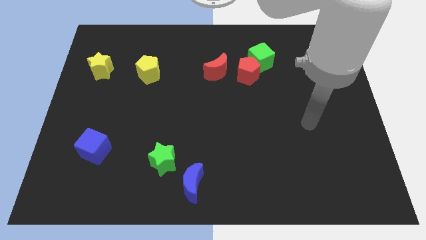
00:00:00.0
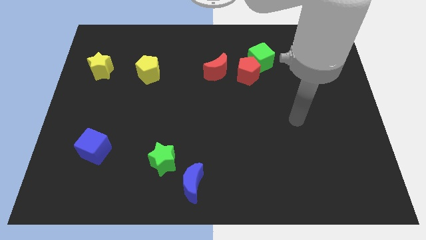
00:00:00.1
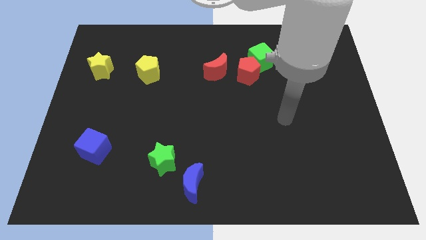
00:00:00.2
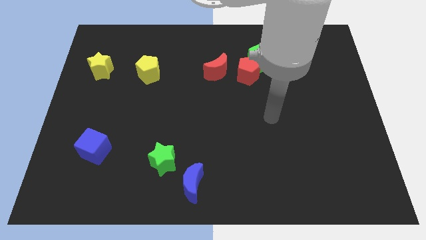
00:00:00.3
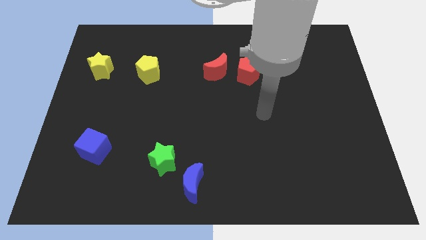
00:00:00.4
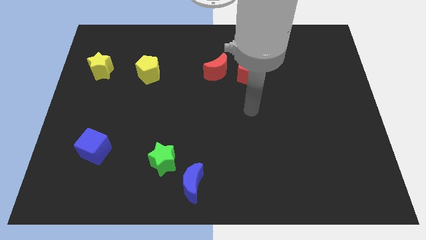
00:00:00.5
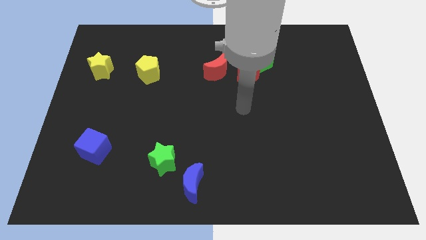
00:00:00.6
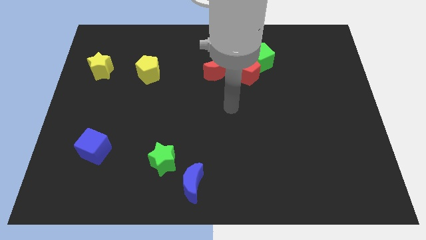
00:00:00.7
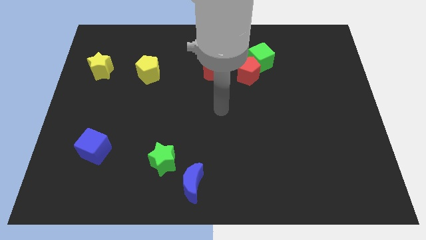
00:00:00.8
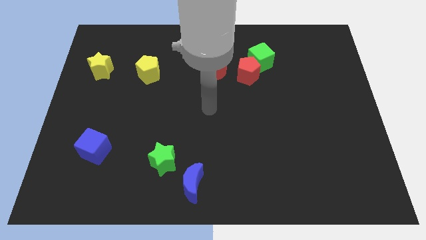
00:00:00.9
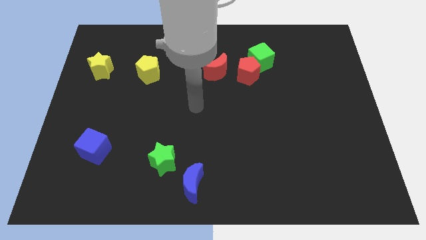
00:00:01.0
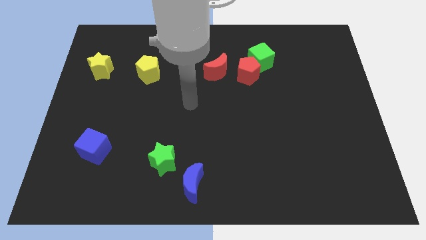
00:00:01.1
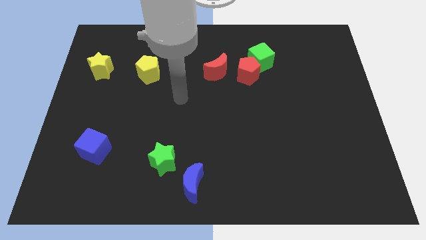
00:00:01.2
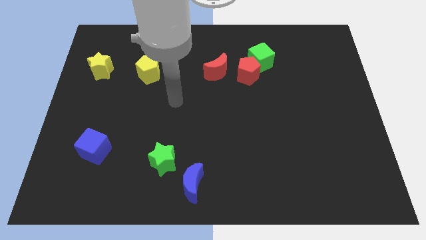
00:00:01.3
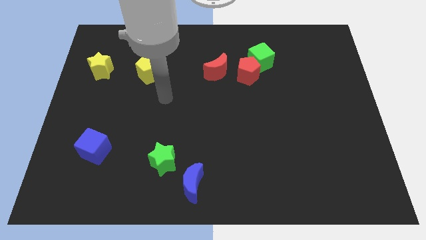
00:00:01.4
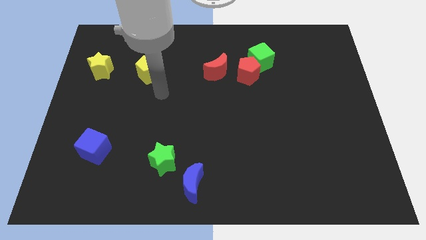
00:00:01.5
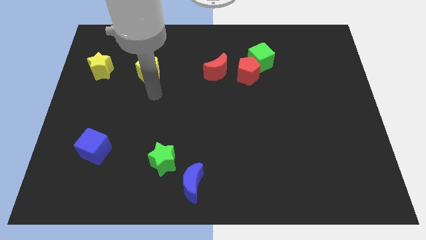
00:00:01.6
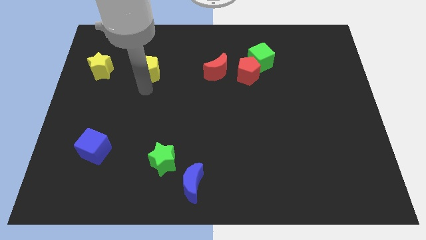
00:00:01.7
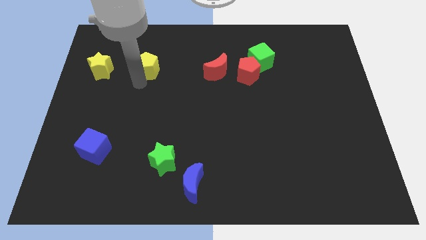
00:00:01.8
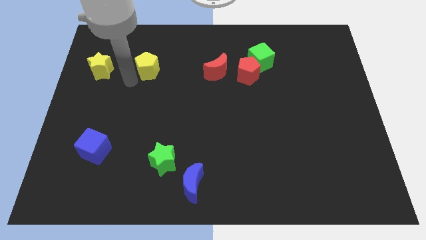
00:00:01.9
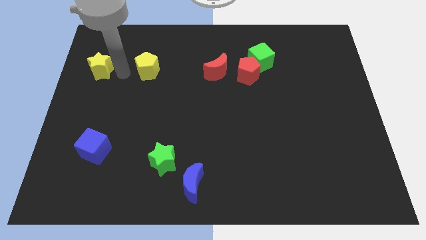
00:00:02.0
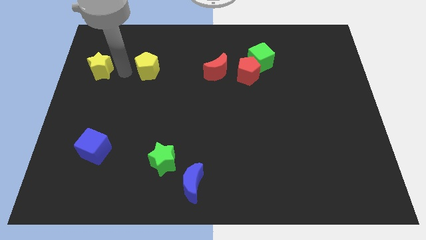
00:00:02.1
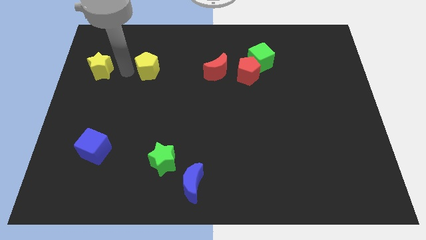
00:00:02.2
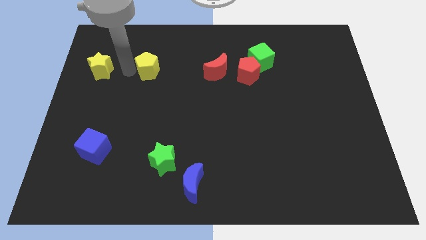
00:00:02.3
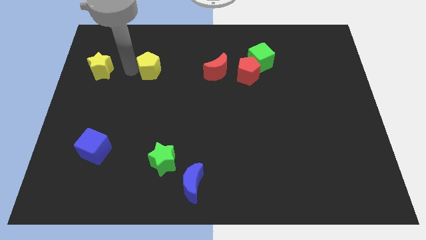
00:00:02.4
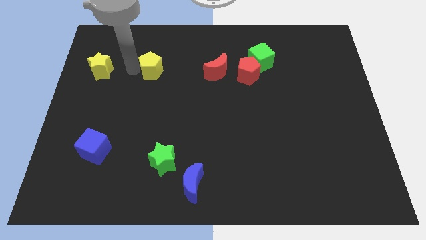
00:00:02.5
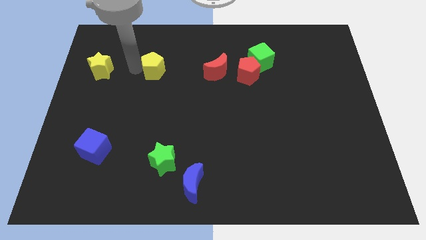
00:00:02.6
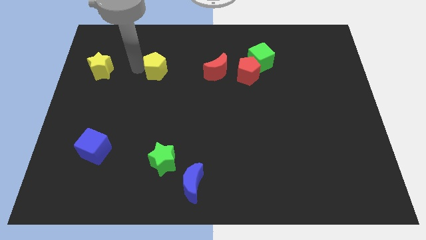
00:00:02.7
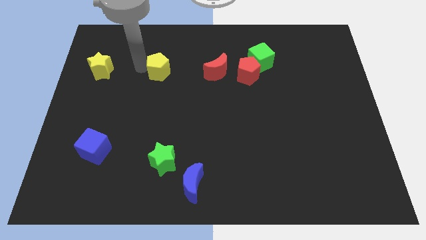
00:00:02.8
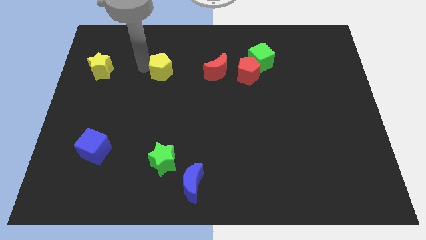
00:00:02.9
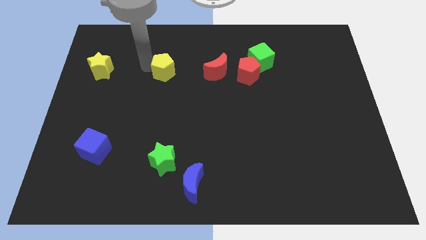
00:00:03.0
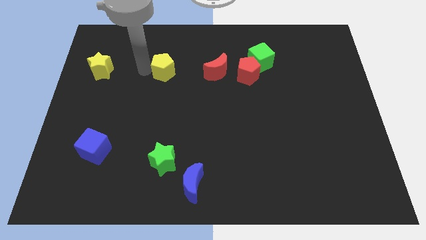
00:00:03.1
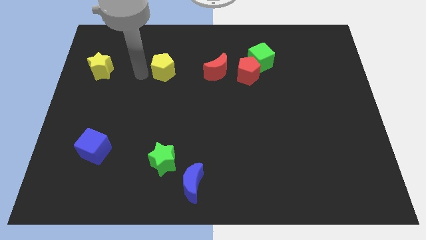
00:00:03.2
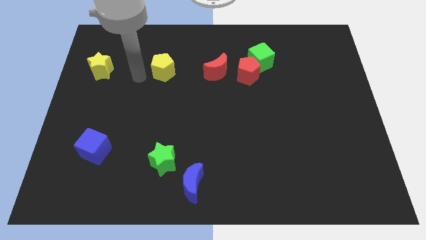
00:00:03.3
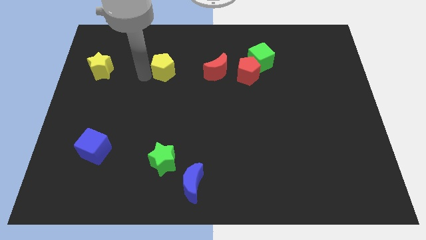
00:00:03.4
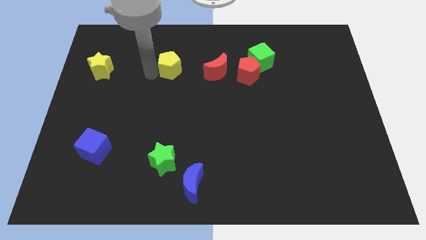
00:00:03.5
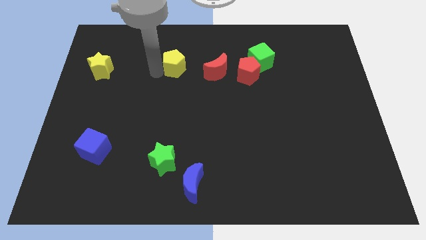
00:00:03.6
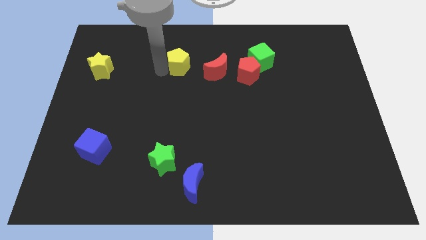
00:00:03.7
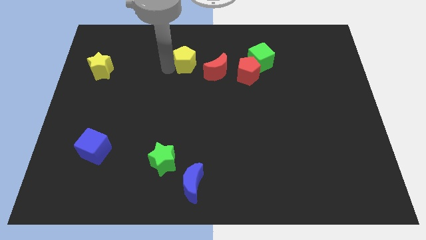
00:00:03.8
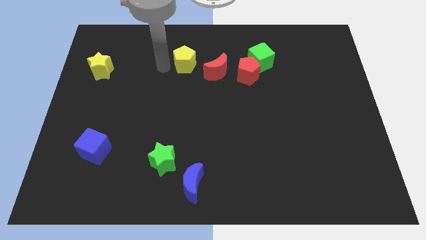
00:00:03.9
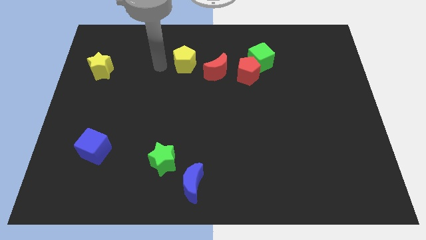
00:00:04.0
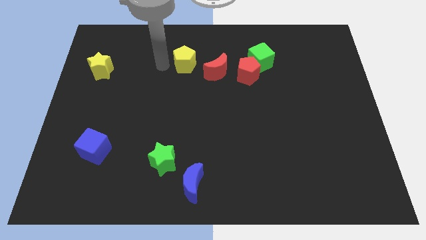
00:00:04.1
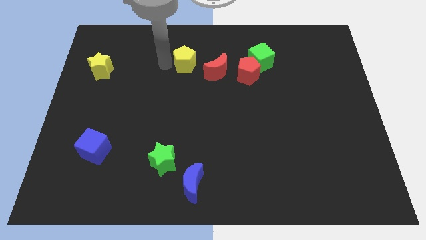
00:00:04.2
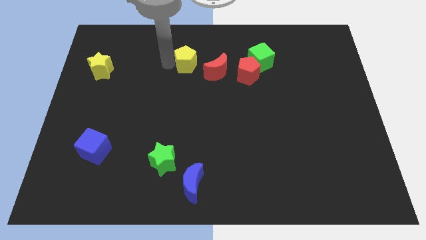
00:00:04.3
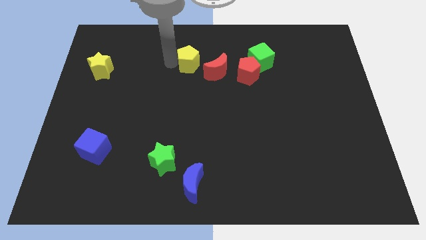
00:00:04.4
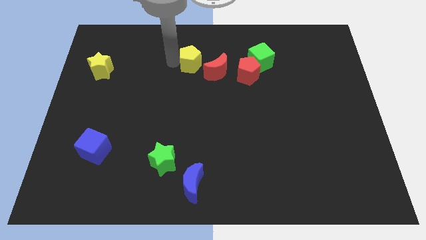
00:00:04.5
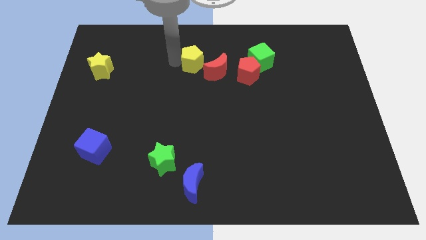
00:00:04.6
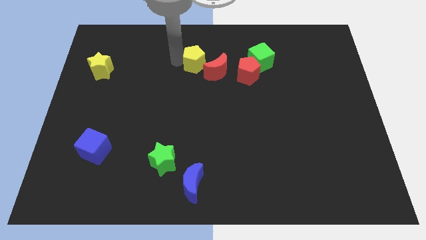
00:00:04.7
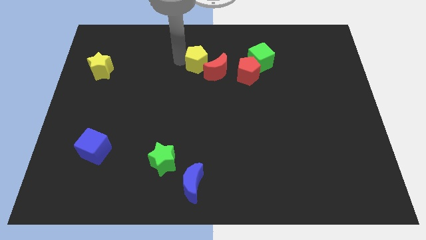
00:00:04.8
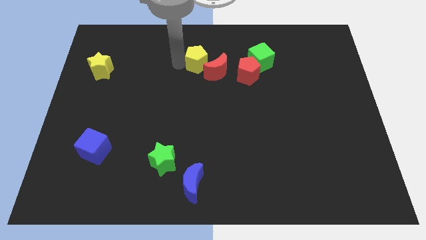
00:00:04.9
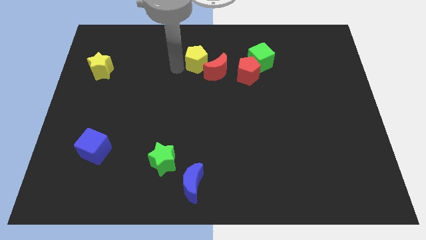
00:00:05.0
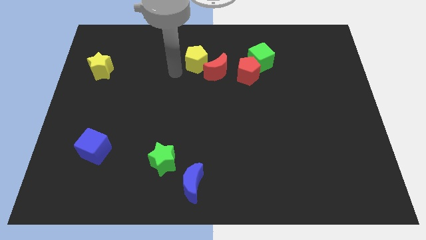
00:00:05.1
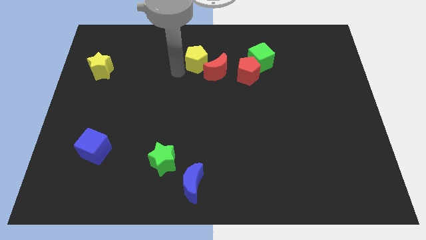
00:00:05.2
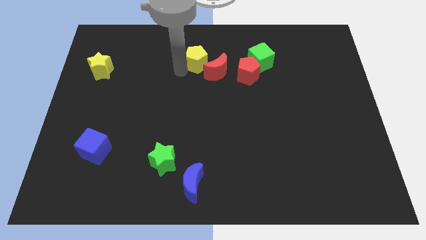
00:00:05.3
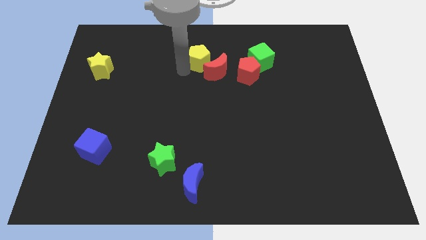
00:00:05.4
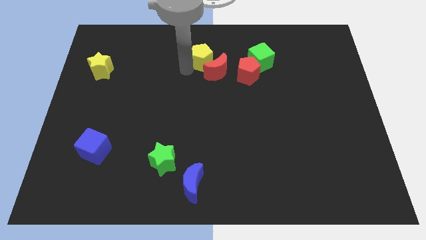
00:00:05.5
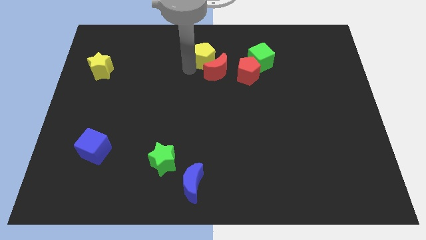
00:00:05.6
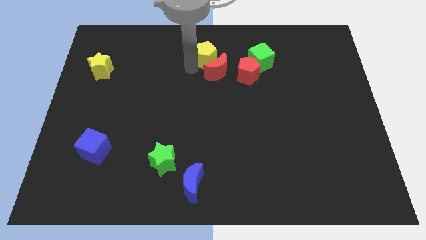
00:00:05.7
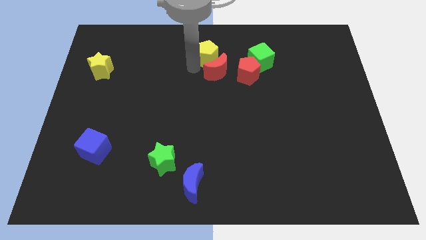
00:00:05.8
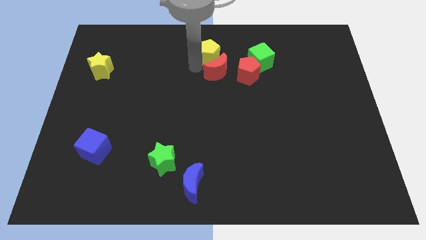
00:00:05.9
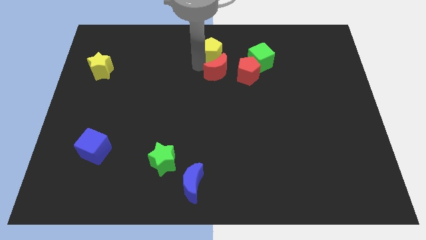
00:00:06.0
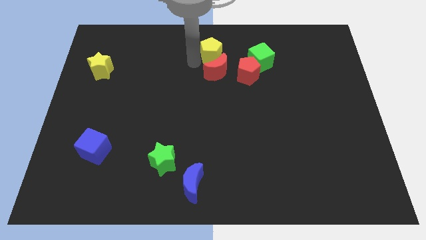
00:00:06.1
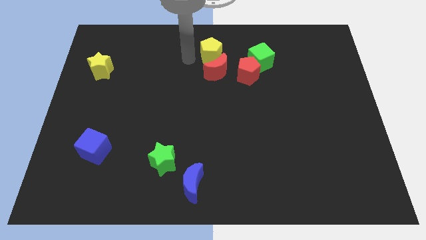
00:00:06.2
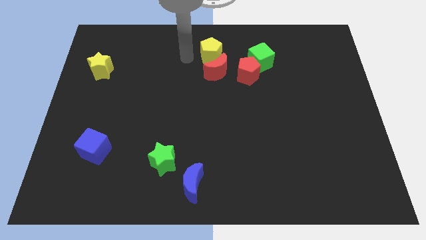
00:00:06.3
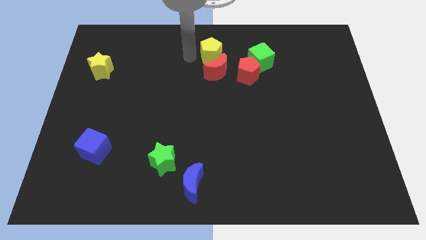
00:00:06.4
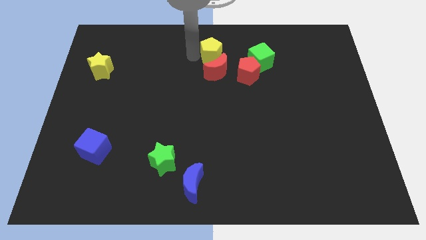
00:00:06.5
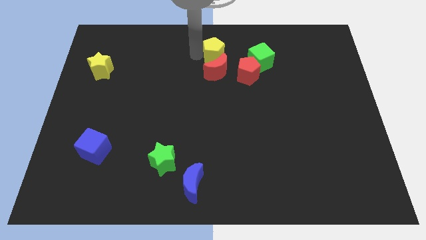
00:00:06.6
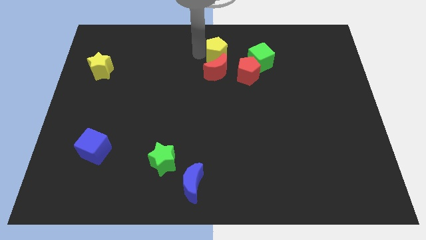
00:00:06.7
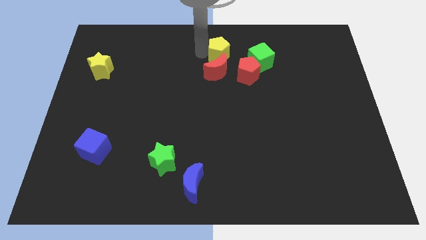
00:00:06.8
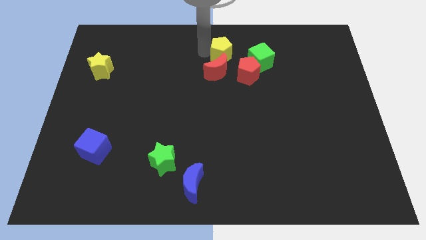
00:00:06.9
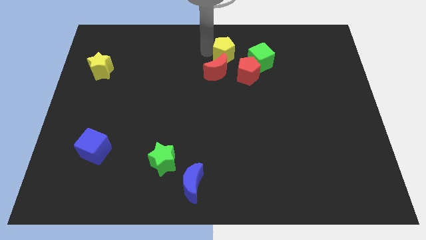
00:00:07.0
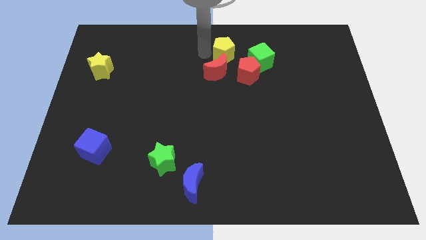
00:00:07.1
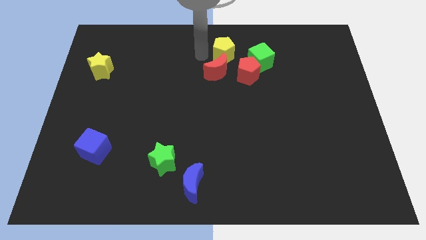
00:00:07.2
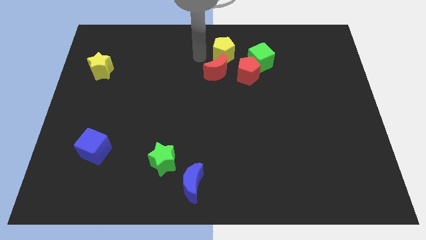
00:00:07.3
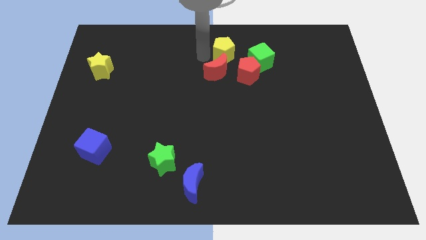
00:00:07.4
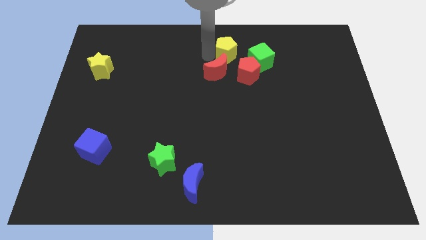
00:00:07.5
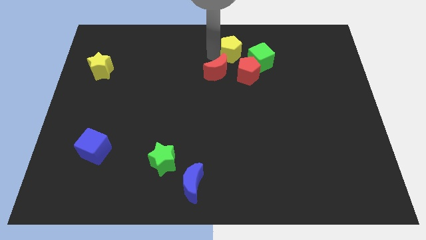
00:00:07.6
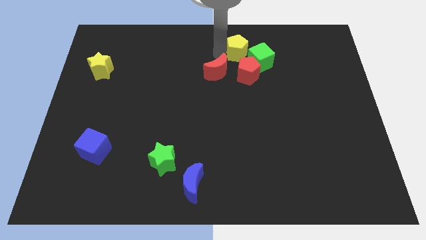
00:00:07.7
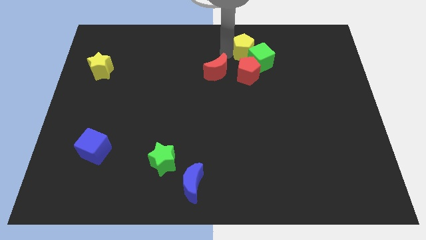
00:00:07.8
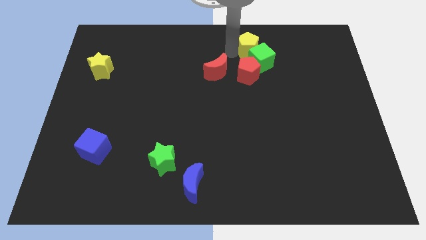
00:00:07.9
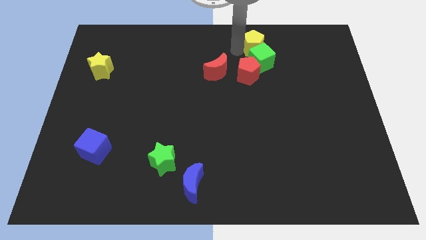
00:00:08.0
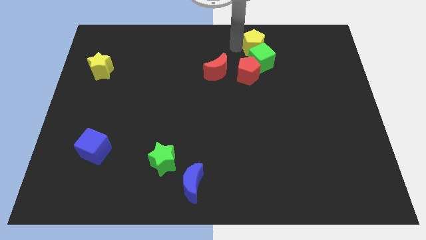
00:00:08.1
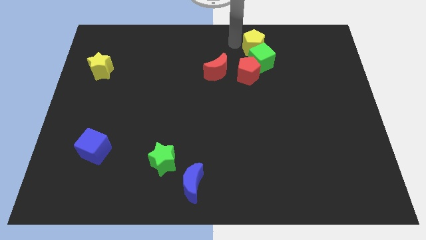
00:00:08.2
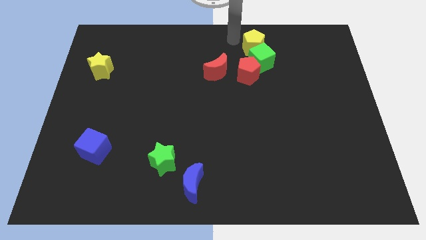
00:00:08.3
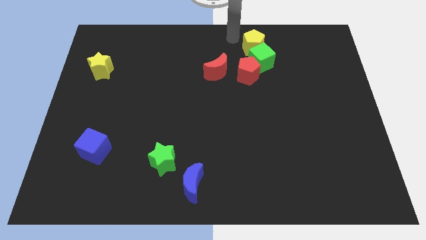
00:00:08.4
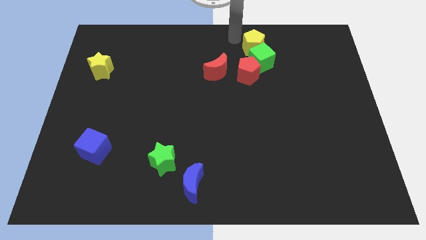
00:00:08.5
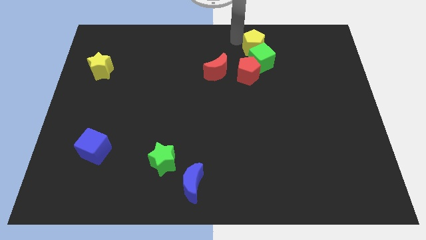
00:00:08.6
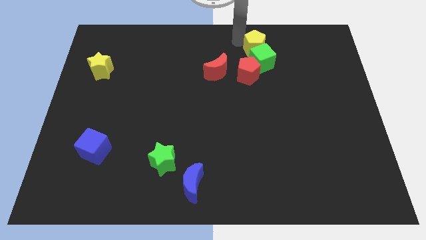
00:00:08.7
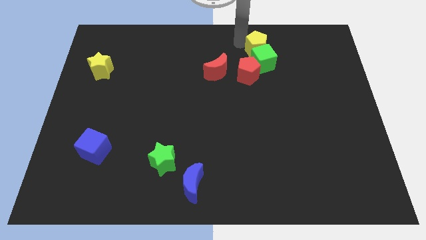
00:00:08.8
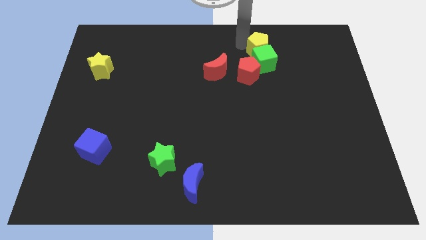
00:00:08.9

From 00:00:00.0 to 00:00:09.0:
move the yellow pentagon to the top right of the red pentagon
